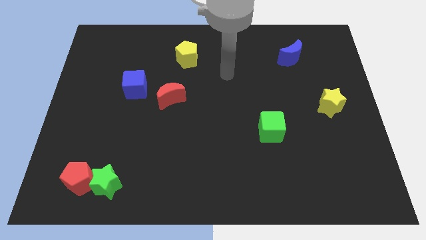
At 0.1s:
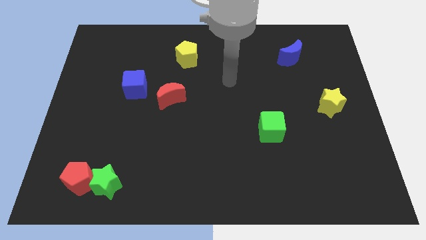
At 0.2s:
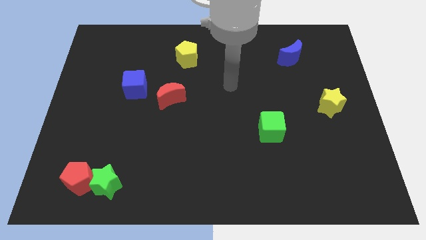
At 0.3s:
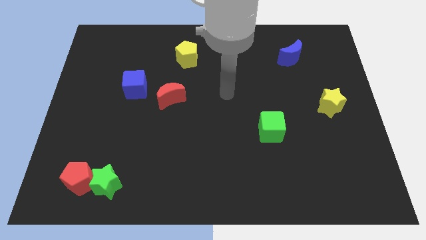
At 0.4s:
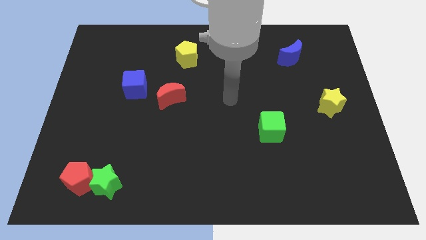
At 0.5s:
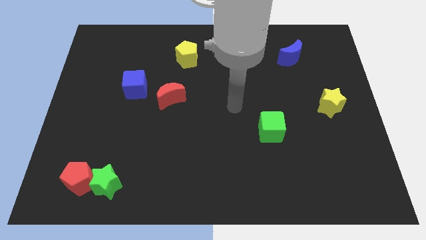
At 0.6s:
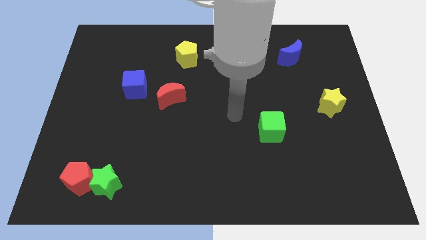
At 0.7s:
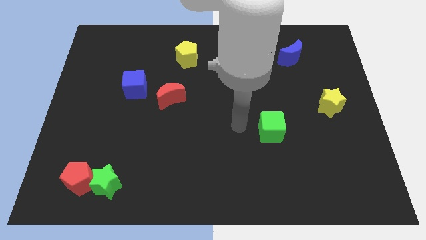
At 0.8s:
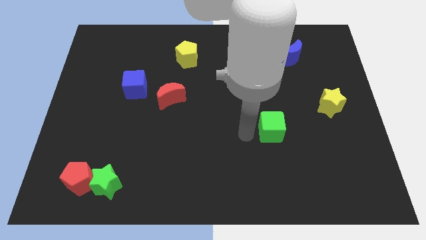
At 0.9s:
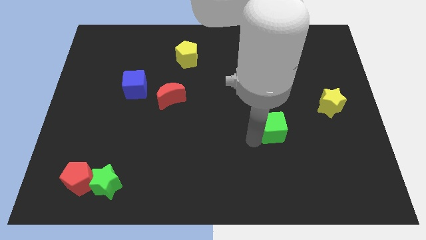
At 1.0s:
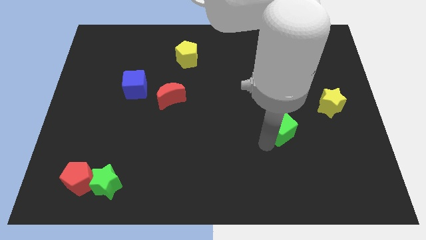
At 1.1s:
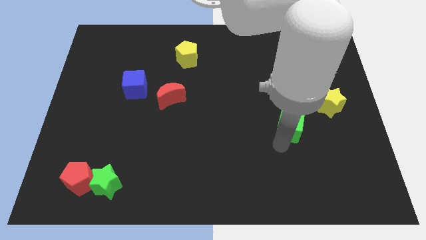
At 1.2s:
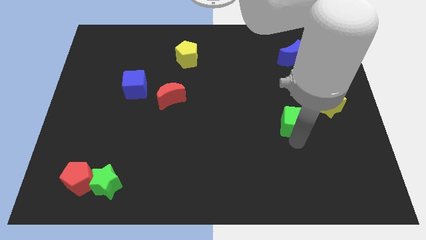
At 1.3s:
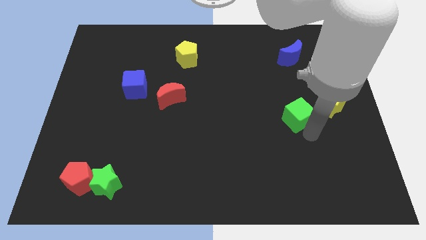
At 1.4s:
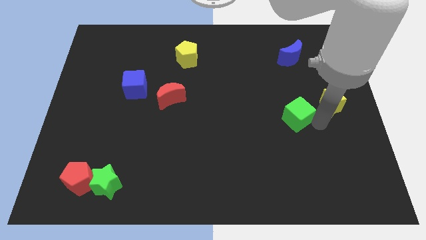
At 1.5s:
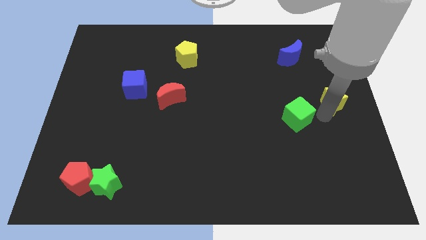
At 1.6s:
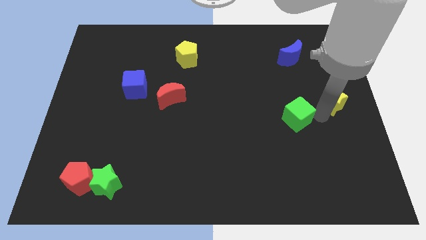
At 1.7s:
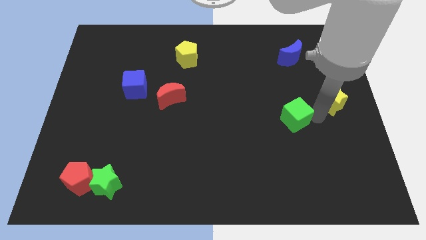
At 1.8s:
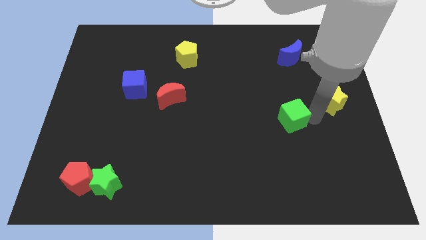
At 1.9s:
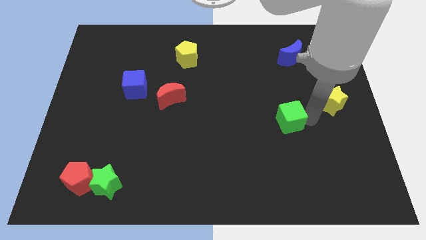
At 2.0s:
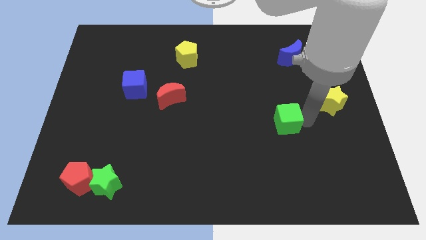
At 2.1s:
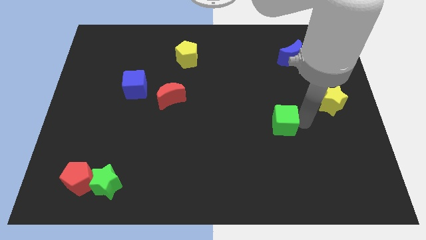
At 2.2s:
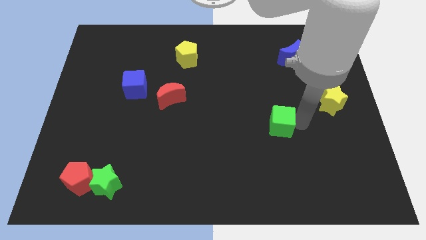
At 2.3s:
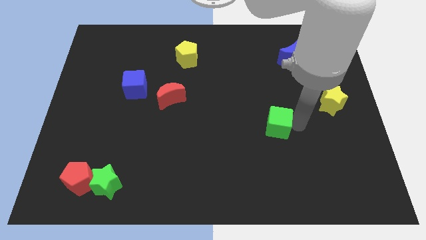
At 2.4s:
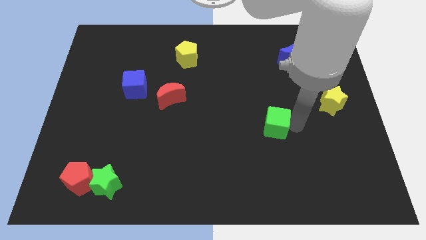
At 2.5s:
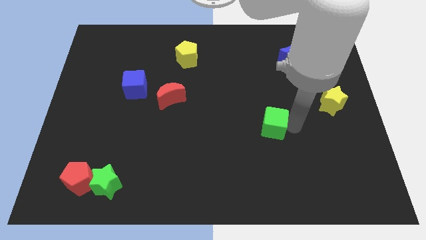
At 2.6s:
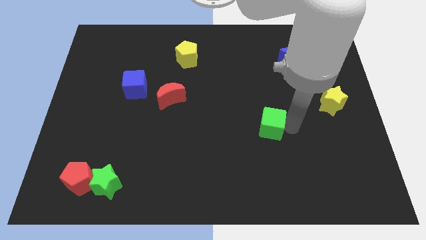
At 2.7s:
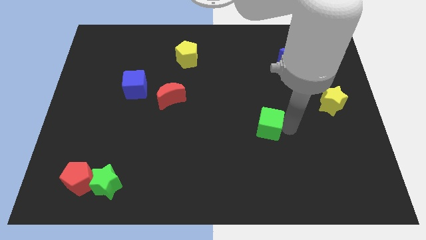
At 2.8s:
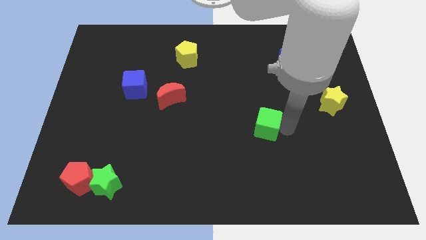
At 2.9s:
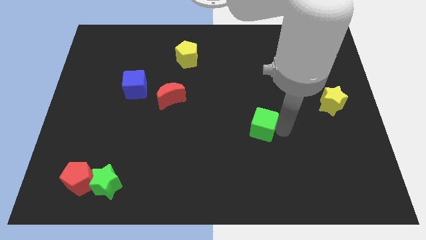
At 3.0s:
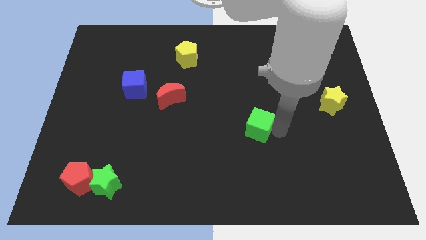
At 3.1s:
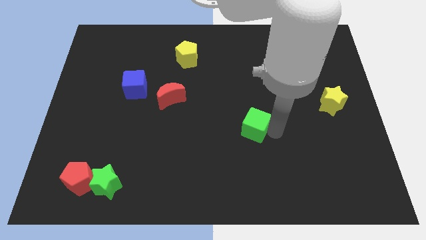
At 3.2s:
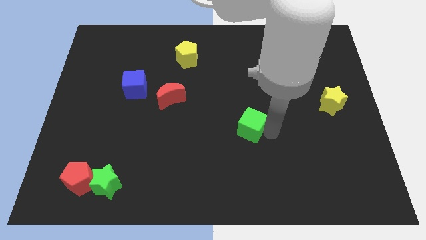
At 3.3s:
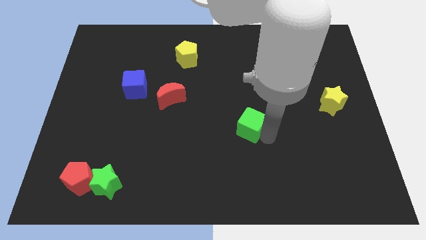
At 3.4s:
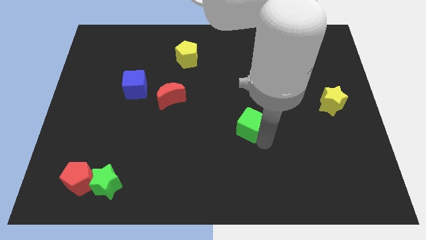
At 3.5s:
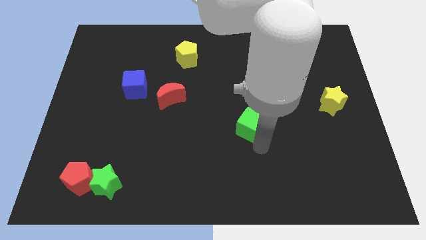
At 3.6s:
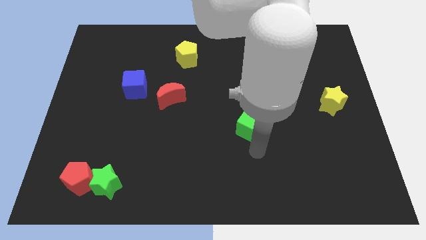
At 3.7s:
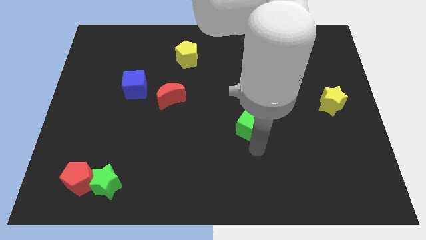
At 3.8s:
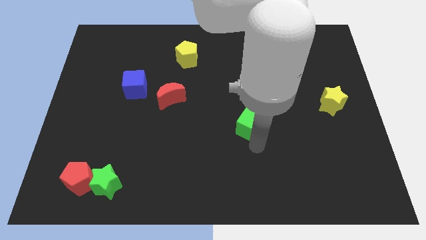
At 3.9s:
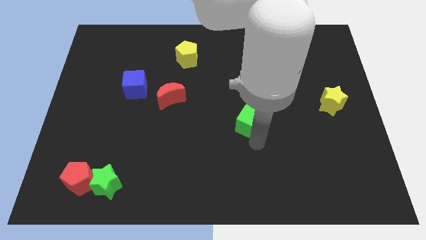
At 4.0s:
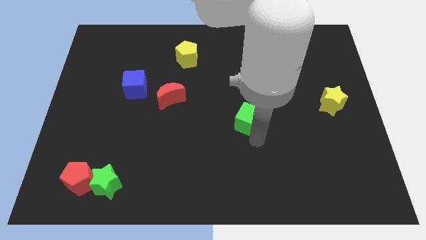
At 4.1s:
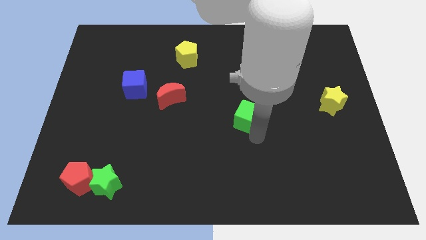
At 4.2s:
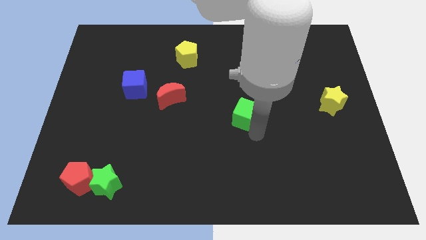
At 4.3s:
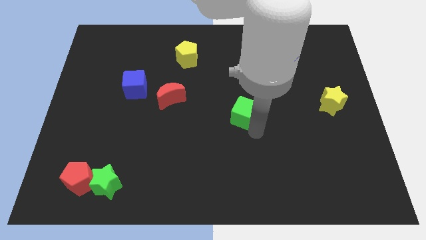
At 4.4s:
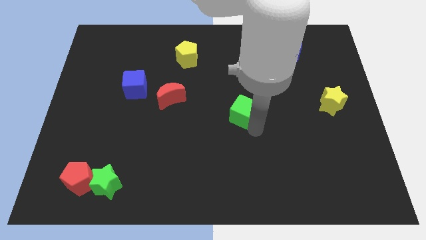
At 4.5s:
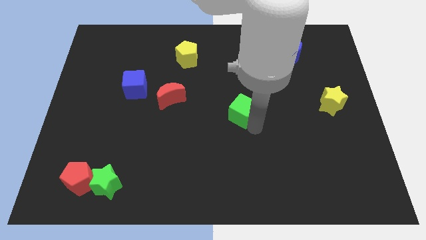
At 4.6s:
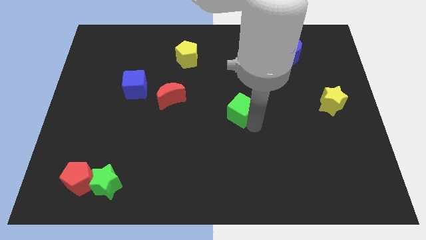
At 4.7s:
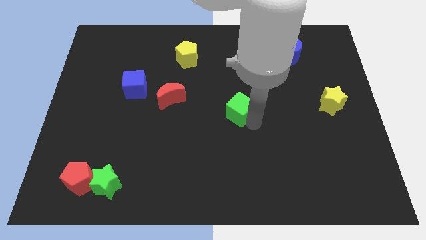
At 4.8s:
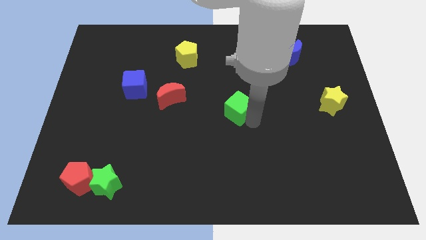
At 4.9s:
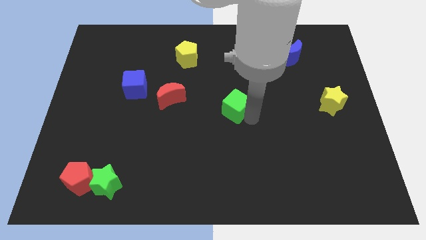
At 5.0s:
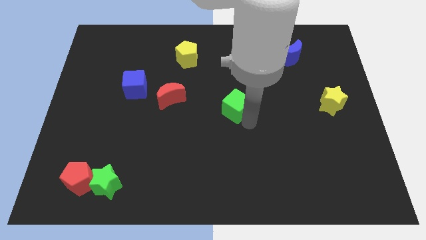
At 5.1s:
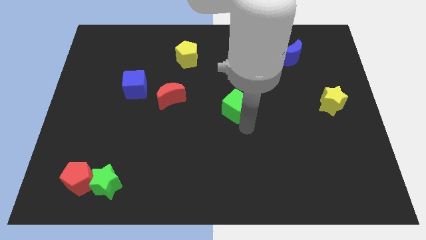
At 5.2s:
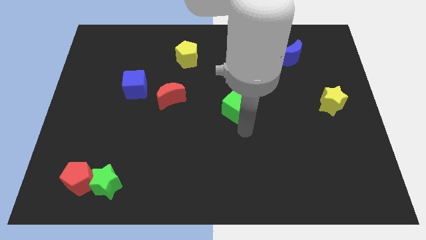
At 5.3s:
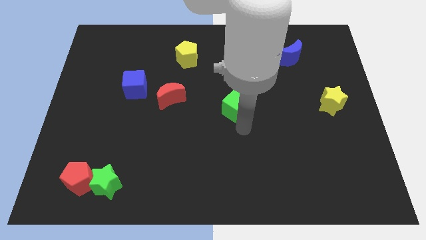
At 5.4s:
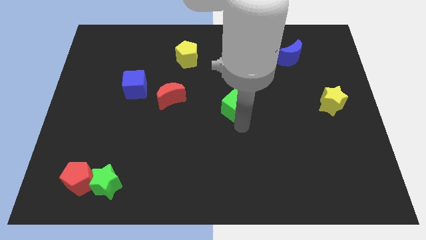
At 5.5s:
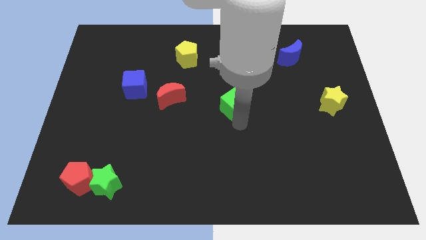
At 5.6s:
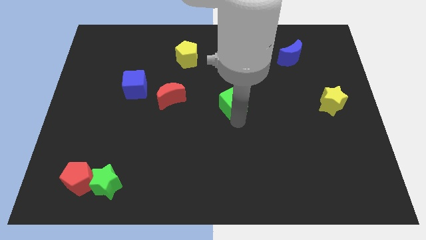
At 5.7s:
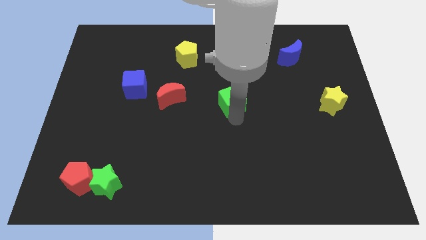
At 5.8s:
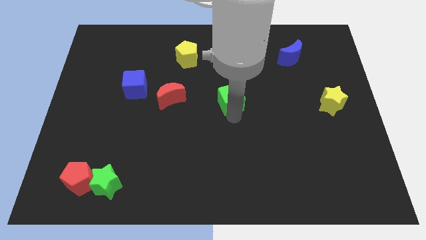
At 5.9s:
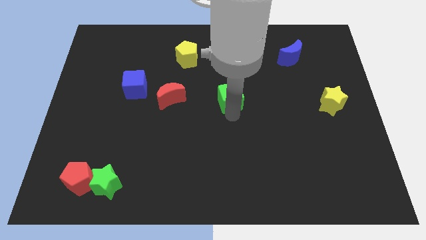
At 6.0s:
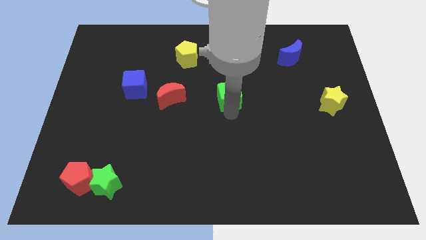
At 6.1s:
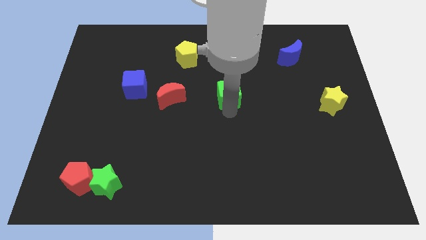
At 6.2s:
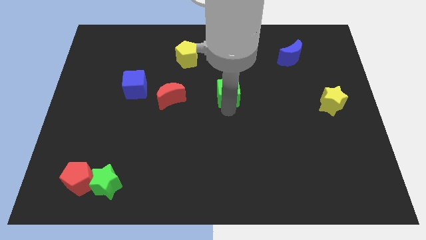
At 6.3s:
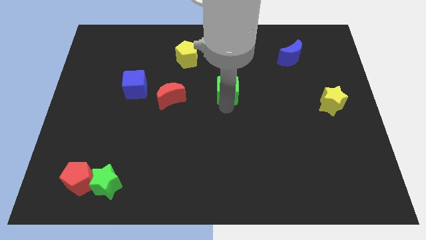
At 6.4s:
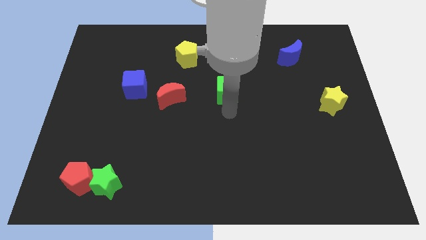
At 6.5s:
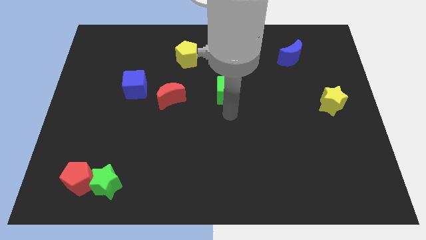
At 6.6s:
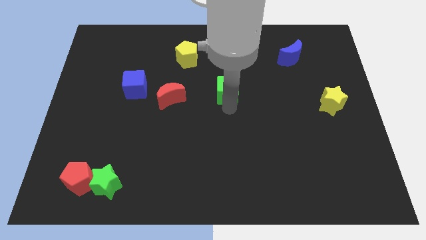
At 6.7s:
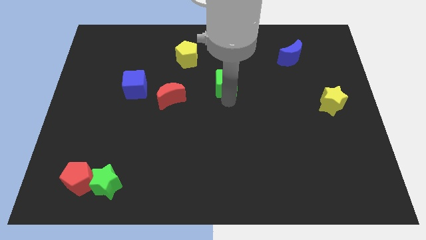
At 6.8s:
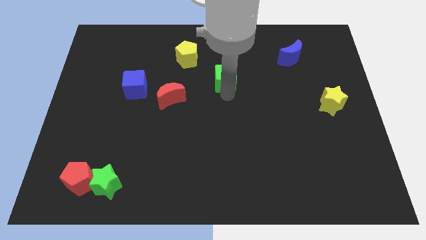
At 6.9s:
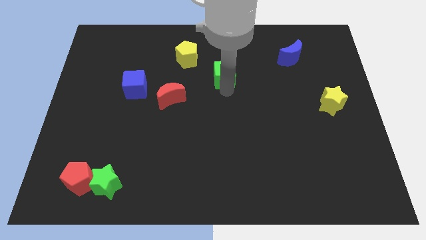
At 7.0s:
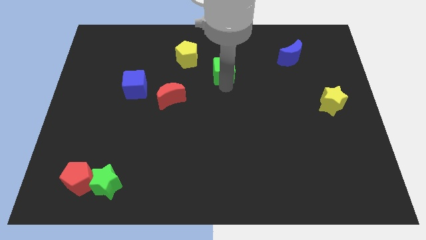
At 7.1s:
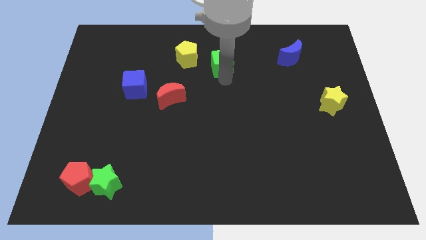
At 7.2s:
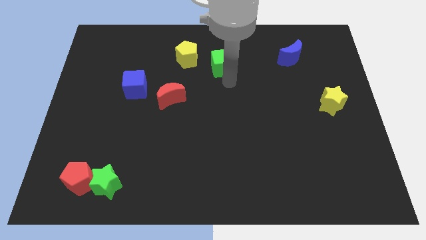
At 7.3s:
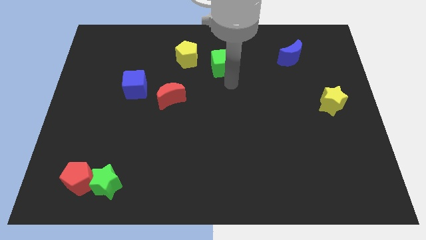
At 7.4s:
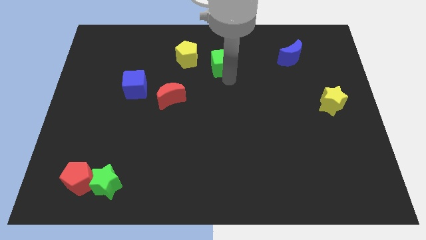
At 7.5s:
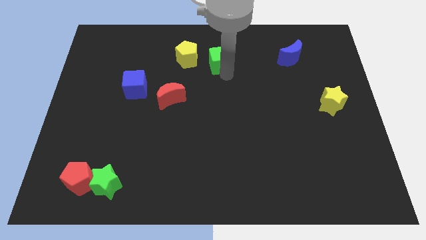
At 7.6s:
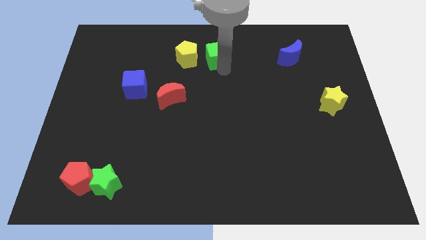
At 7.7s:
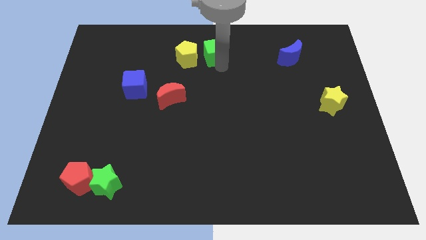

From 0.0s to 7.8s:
put the green cube to the towards your base

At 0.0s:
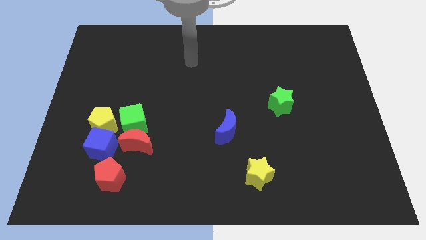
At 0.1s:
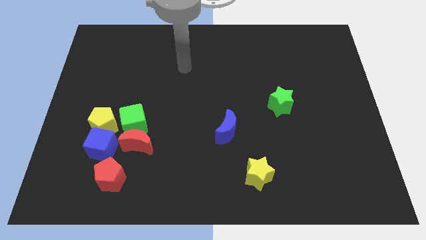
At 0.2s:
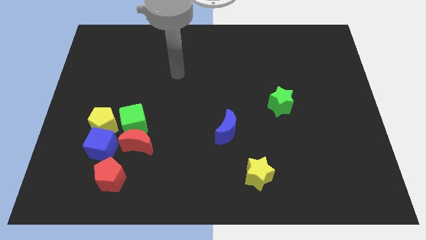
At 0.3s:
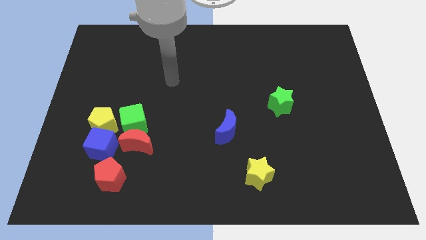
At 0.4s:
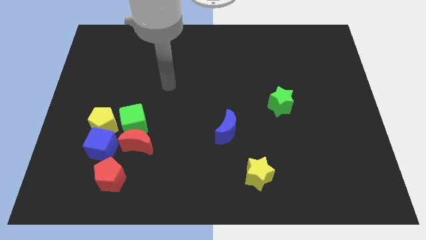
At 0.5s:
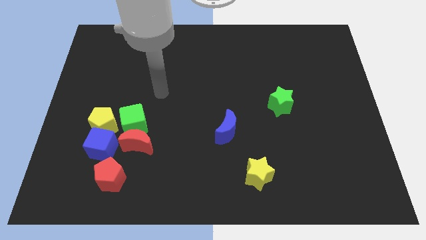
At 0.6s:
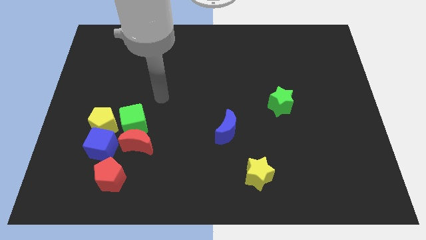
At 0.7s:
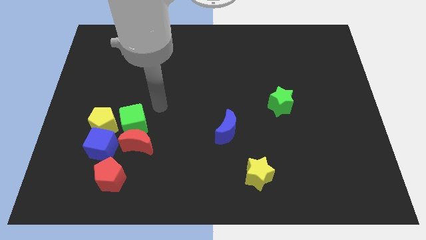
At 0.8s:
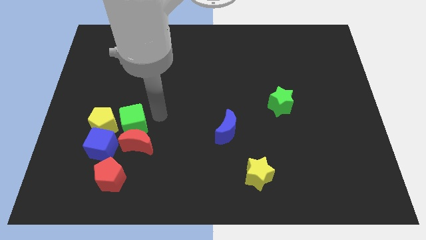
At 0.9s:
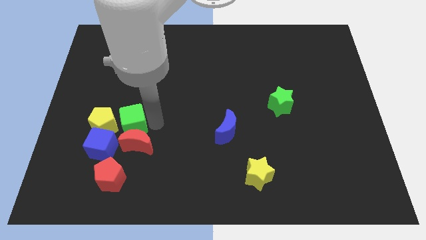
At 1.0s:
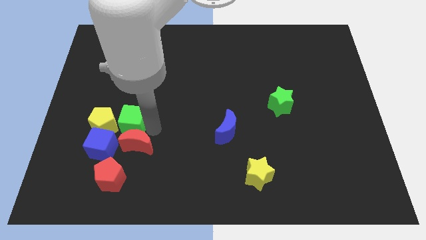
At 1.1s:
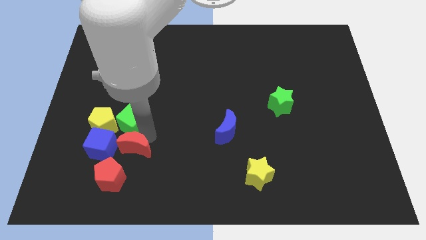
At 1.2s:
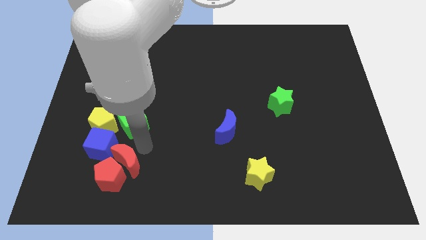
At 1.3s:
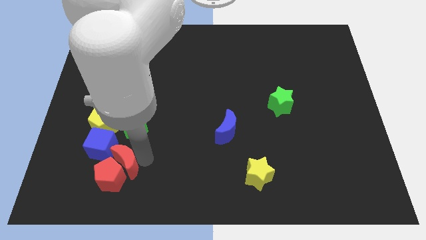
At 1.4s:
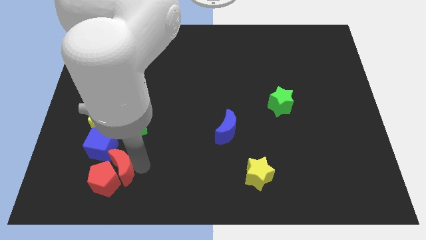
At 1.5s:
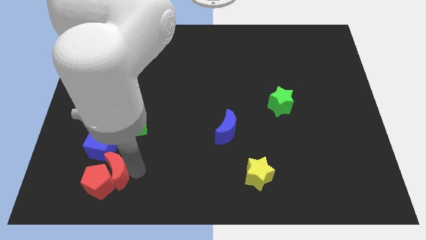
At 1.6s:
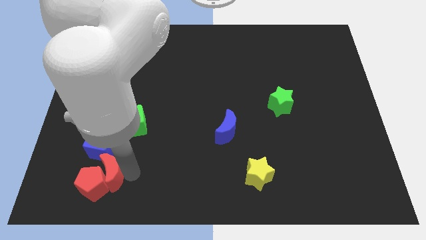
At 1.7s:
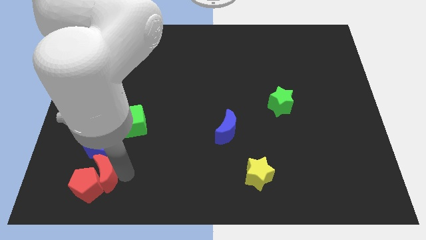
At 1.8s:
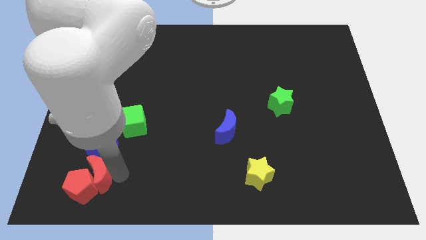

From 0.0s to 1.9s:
slide the red pentagon to the bottom left
